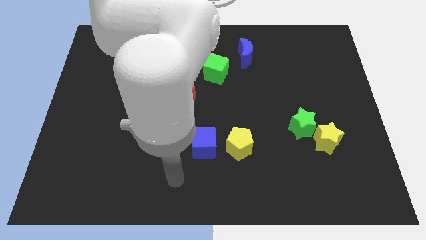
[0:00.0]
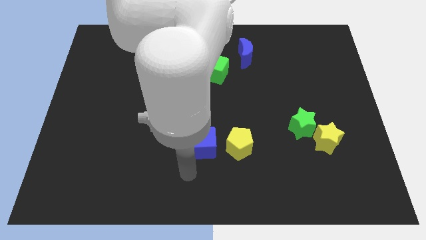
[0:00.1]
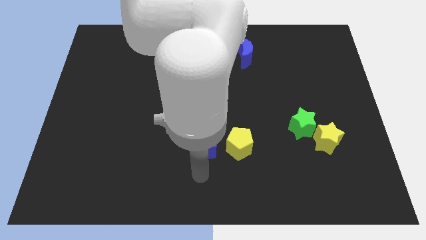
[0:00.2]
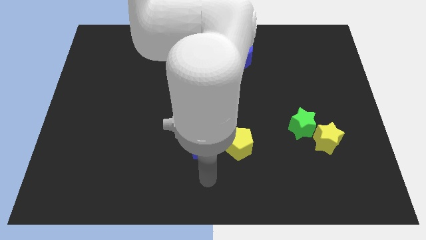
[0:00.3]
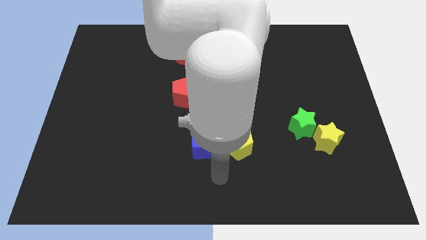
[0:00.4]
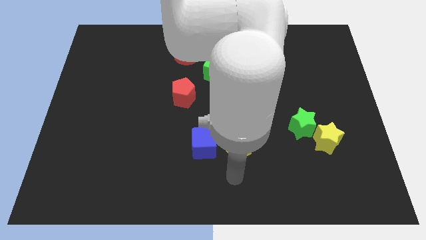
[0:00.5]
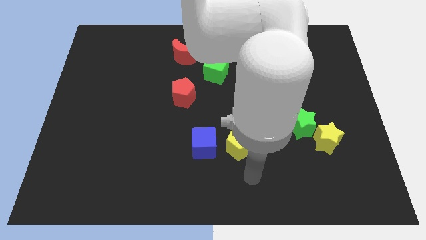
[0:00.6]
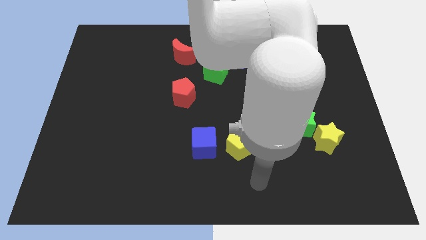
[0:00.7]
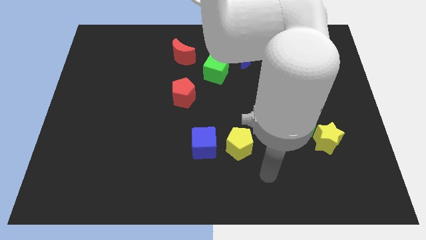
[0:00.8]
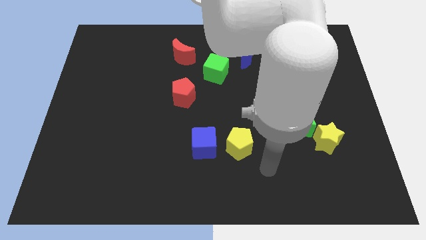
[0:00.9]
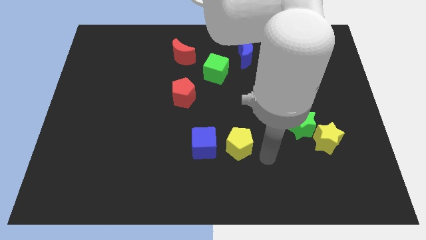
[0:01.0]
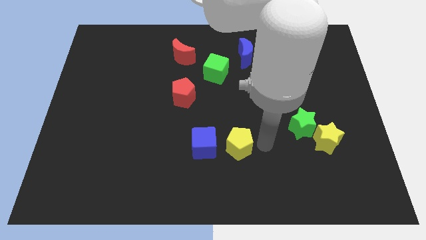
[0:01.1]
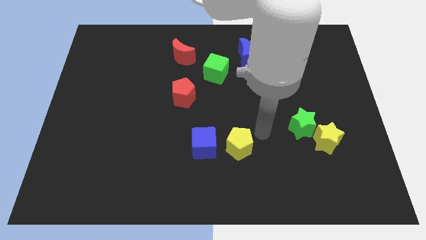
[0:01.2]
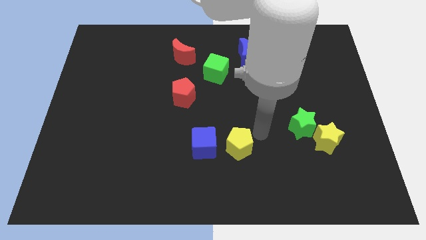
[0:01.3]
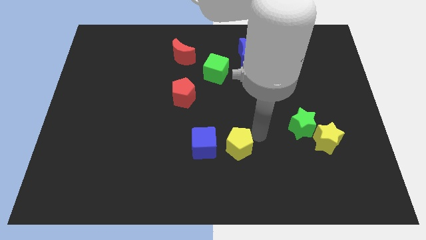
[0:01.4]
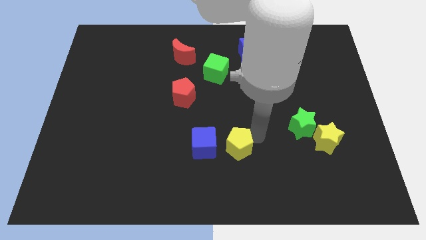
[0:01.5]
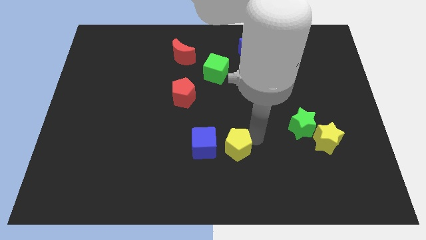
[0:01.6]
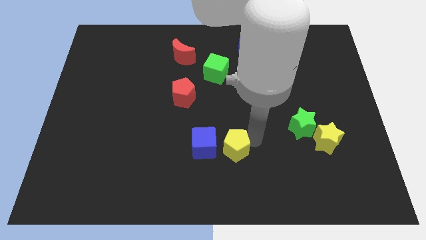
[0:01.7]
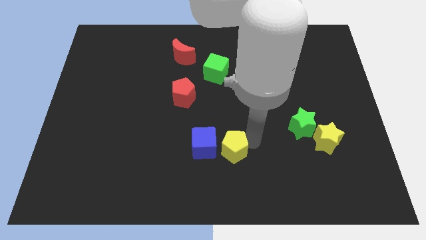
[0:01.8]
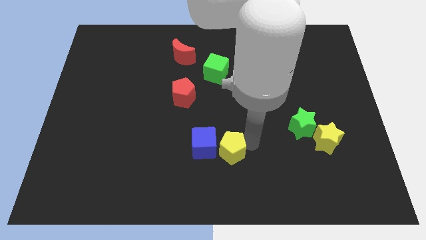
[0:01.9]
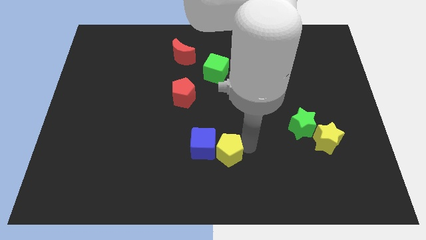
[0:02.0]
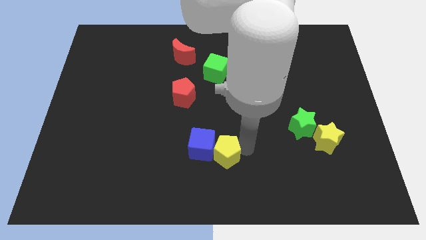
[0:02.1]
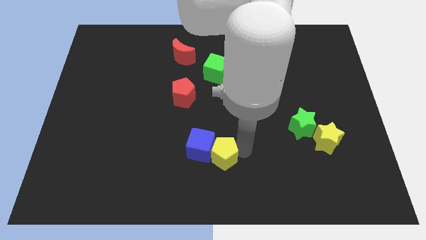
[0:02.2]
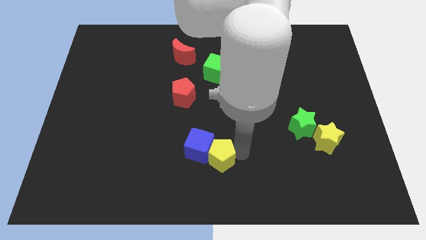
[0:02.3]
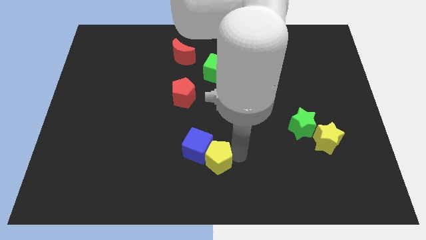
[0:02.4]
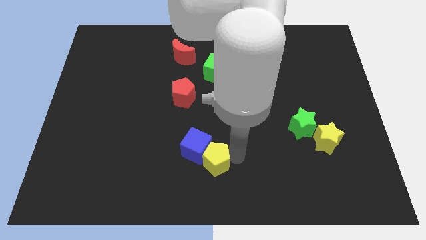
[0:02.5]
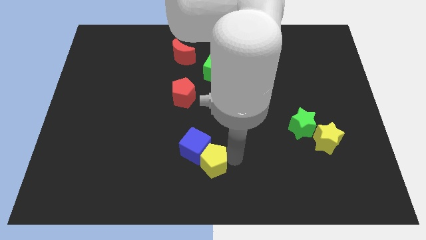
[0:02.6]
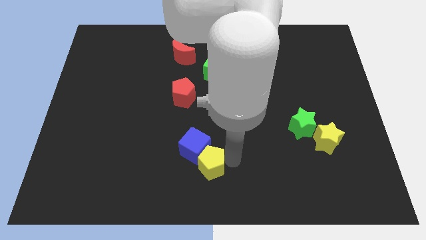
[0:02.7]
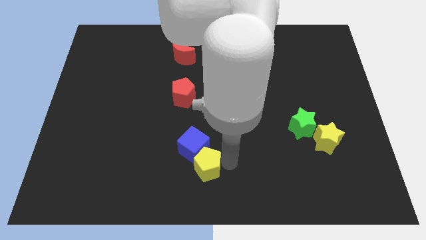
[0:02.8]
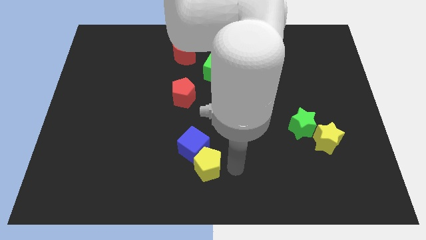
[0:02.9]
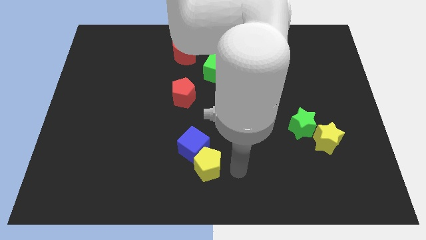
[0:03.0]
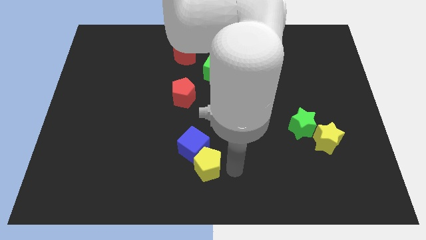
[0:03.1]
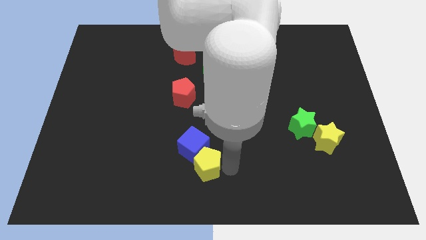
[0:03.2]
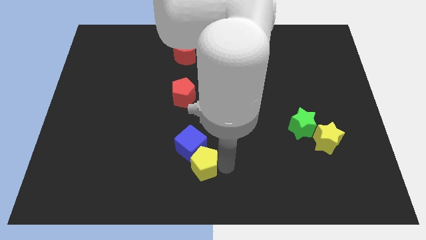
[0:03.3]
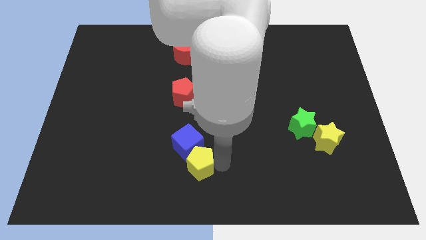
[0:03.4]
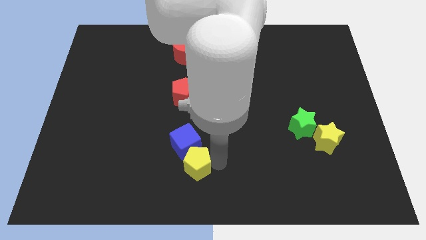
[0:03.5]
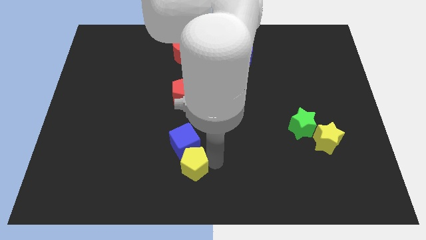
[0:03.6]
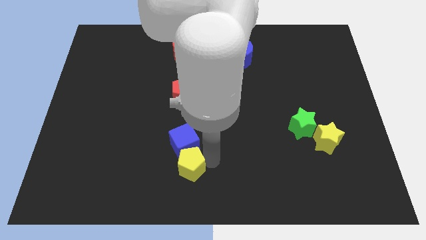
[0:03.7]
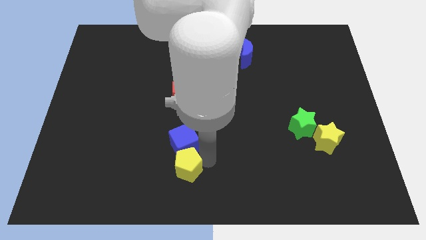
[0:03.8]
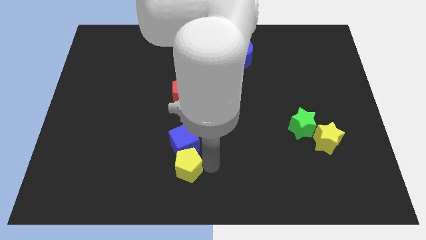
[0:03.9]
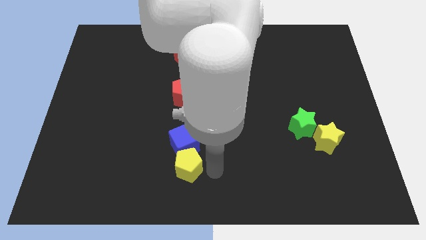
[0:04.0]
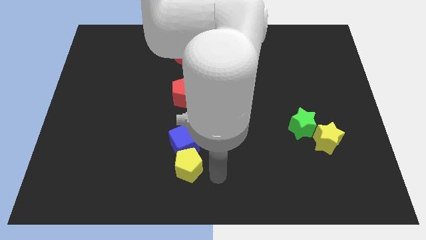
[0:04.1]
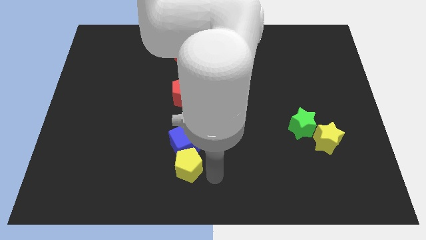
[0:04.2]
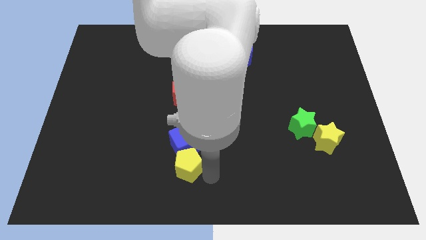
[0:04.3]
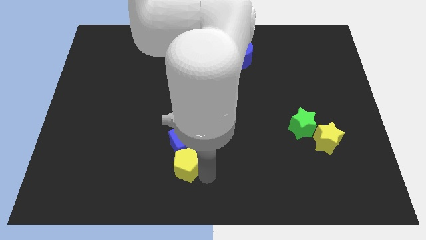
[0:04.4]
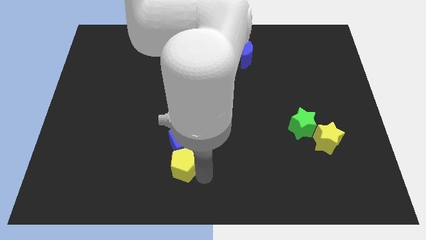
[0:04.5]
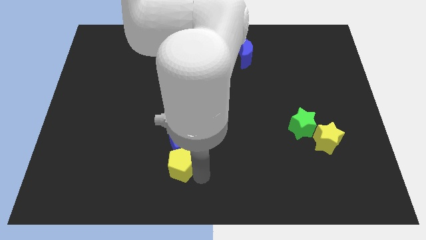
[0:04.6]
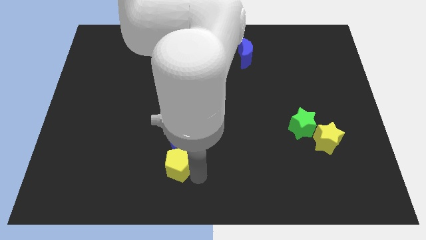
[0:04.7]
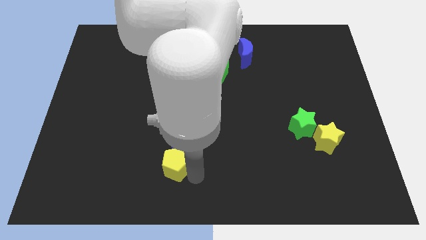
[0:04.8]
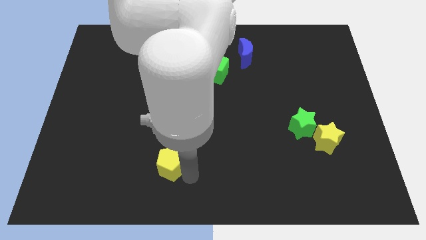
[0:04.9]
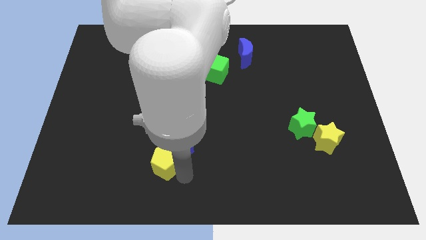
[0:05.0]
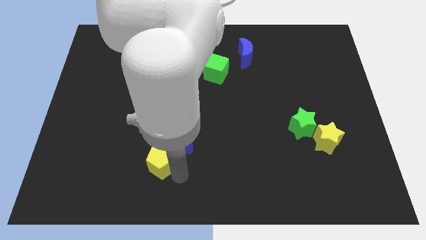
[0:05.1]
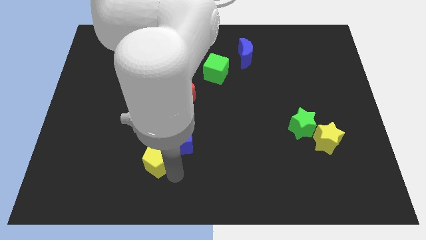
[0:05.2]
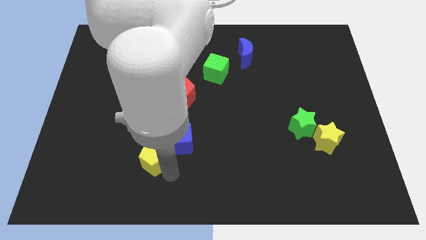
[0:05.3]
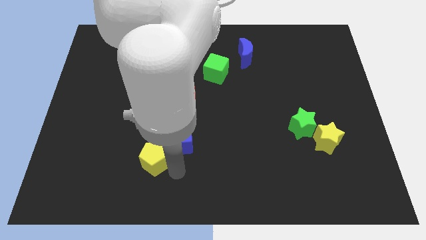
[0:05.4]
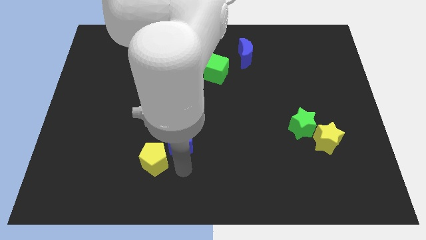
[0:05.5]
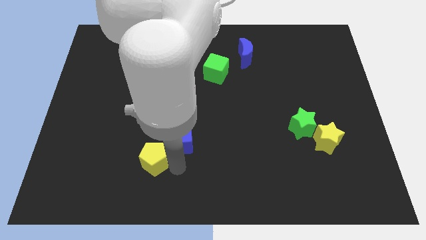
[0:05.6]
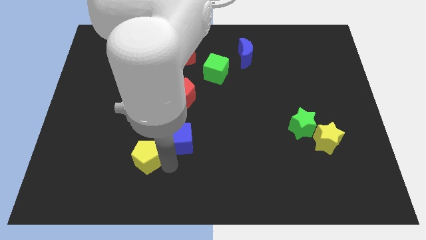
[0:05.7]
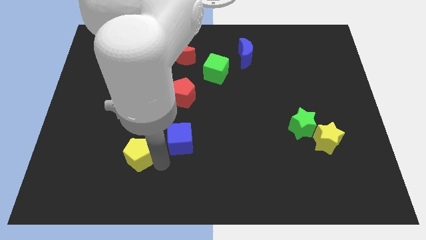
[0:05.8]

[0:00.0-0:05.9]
move the yellow pentagon left

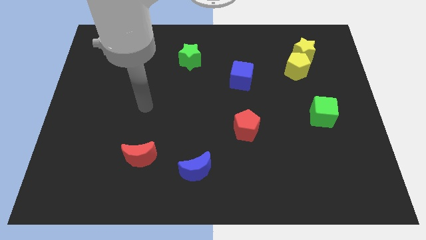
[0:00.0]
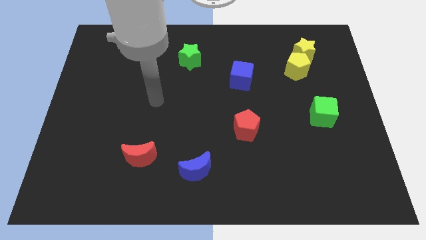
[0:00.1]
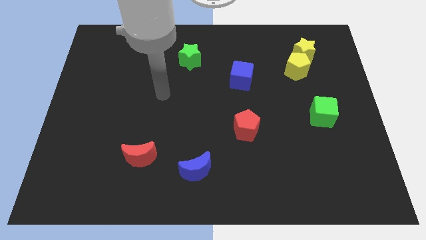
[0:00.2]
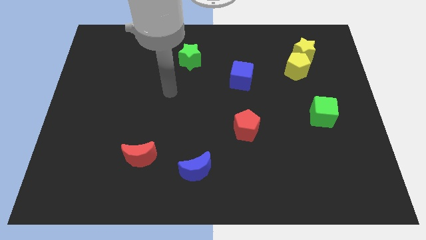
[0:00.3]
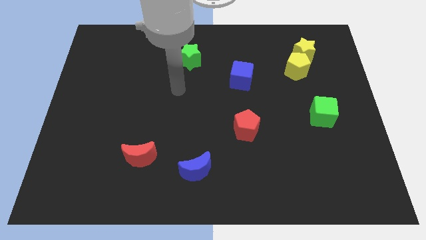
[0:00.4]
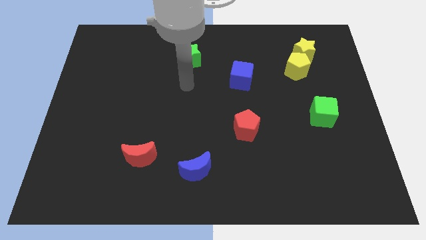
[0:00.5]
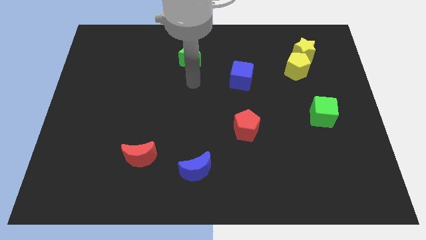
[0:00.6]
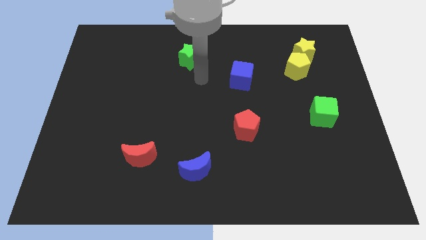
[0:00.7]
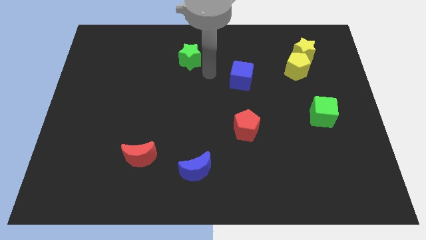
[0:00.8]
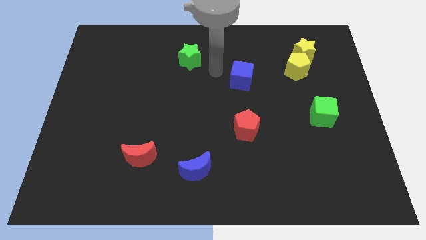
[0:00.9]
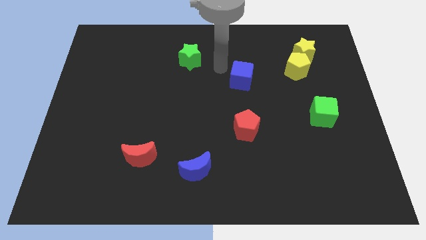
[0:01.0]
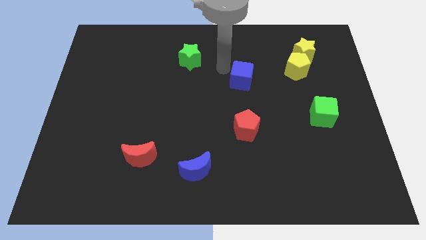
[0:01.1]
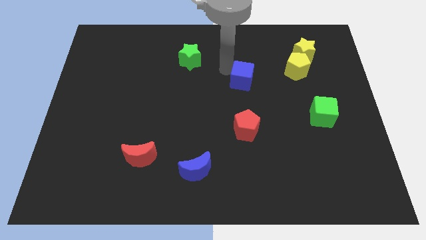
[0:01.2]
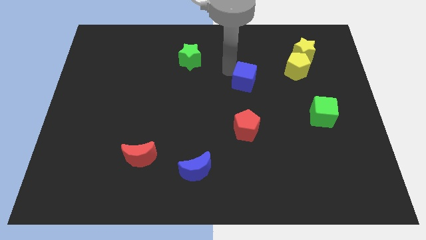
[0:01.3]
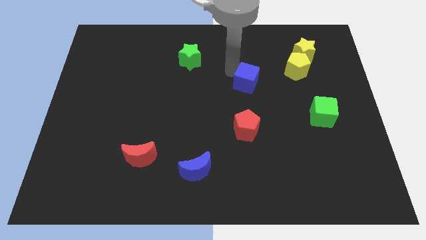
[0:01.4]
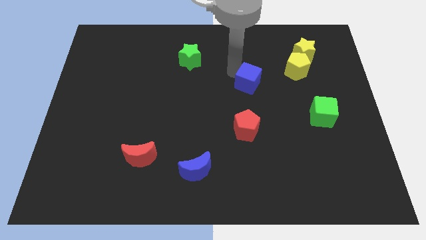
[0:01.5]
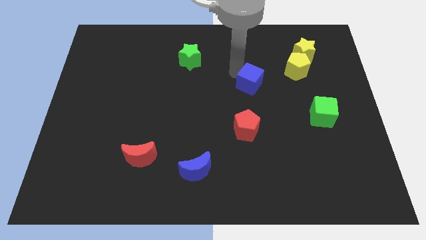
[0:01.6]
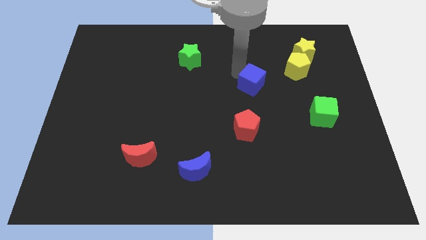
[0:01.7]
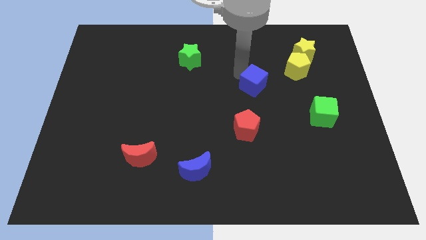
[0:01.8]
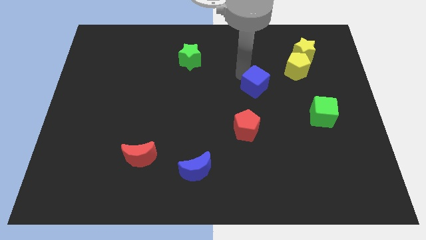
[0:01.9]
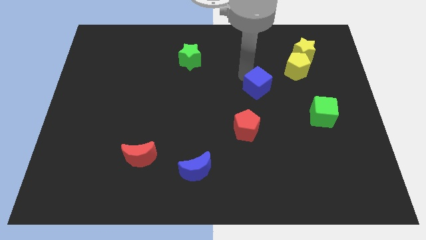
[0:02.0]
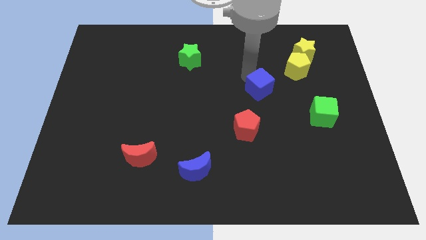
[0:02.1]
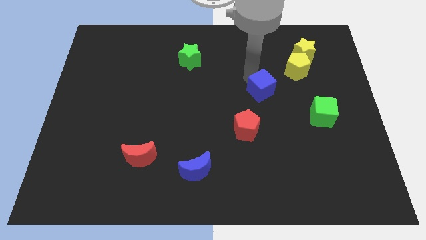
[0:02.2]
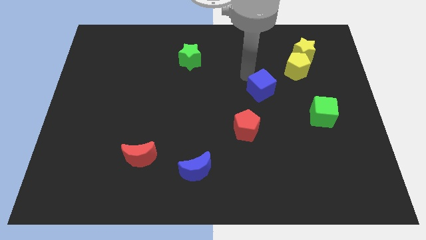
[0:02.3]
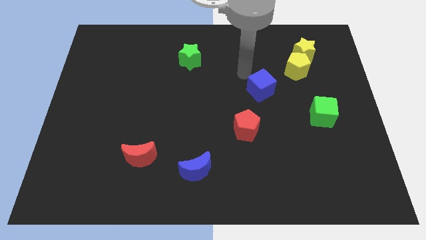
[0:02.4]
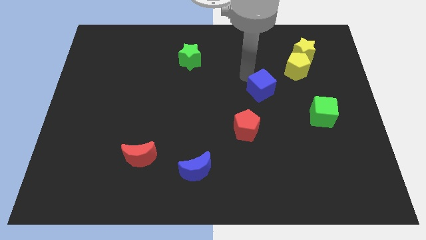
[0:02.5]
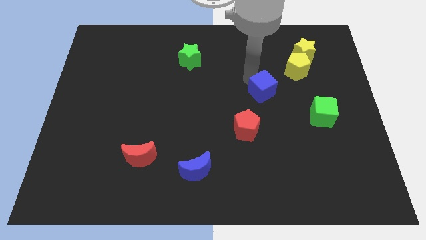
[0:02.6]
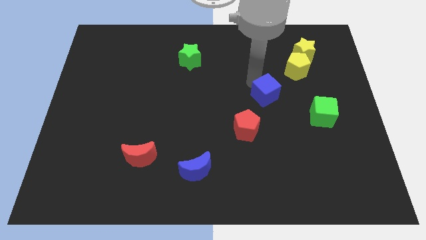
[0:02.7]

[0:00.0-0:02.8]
slightly move the blue cube downwards and to the right
